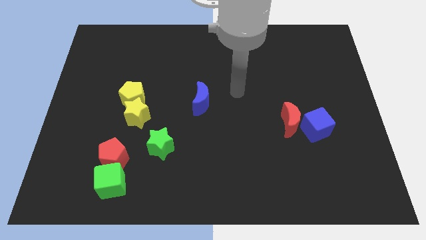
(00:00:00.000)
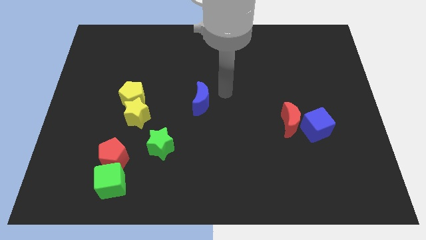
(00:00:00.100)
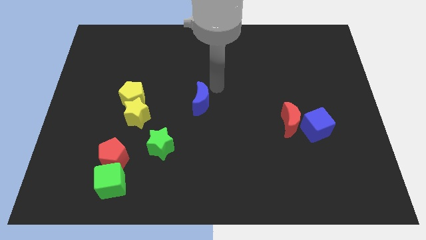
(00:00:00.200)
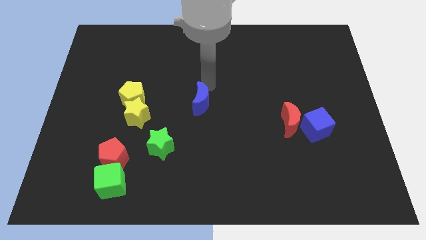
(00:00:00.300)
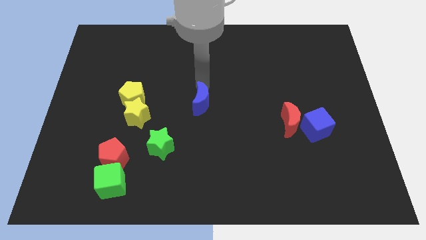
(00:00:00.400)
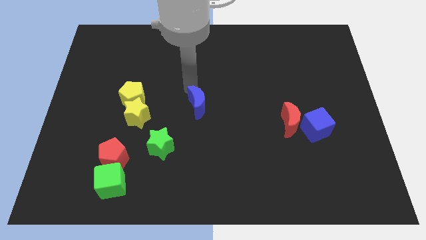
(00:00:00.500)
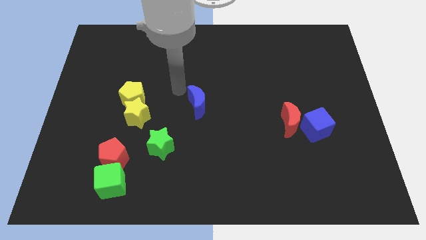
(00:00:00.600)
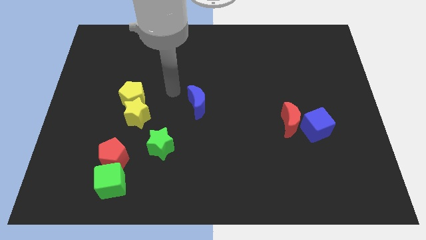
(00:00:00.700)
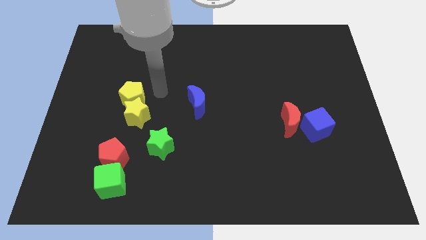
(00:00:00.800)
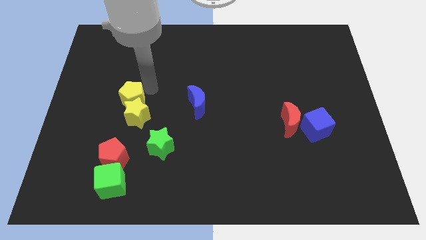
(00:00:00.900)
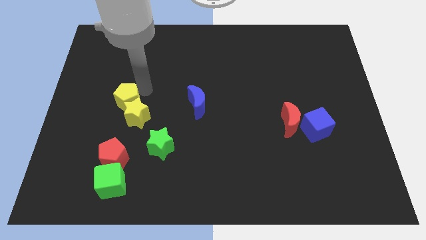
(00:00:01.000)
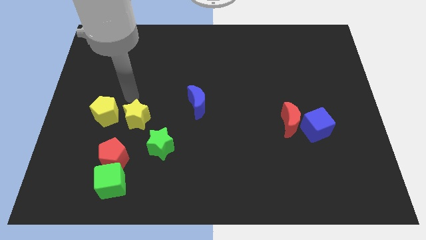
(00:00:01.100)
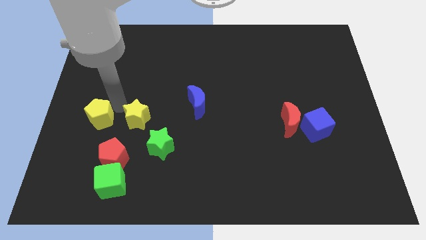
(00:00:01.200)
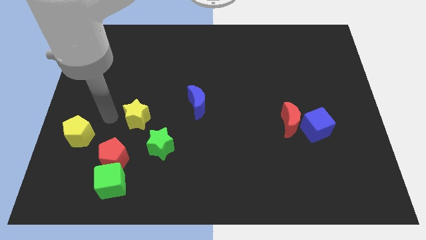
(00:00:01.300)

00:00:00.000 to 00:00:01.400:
move the yellow star away from the yellow pentagon

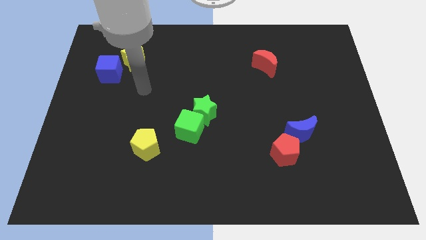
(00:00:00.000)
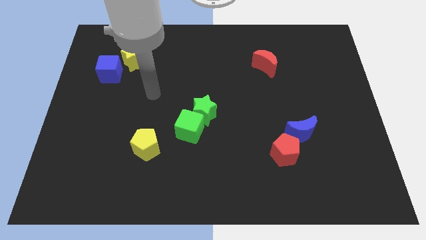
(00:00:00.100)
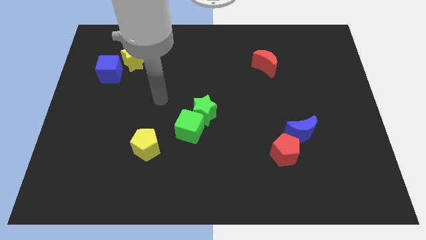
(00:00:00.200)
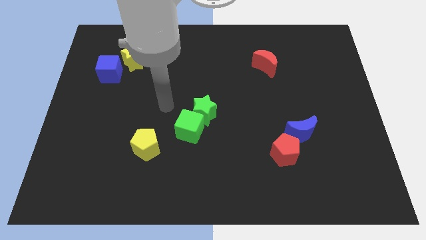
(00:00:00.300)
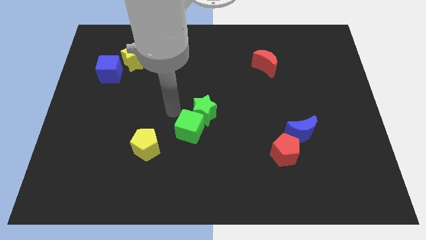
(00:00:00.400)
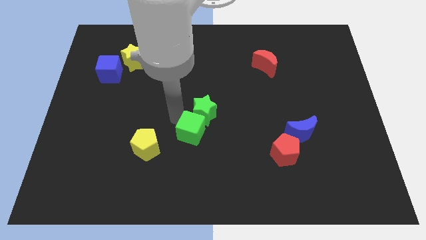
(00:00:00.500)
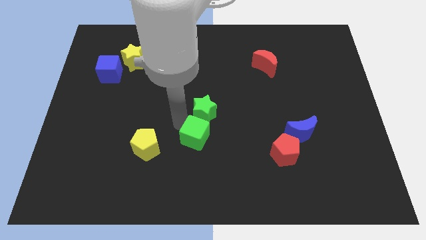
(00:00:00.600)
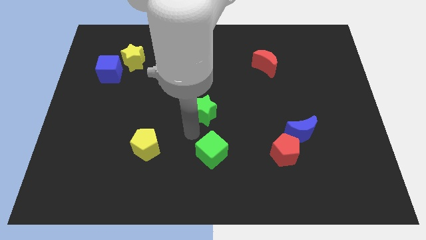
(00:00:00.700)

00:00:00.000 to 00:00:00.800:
pull the green star apart from the green cube

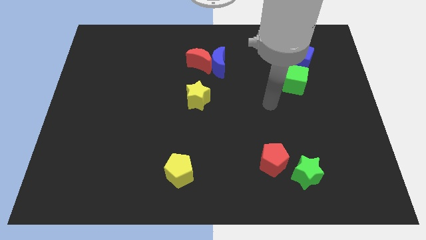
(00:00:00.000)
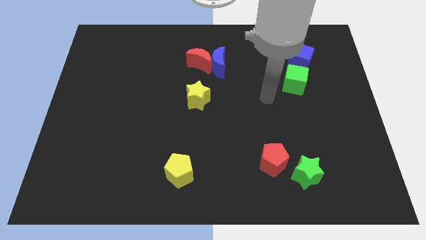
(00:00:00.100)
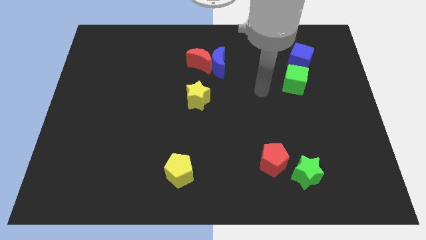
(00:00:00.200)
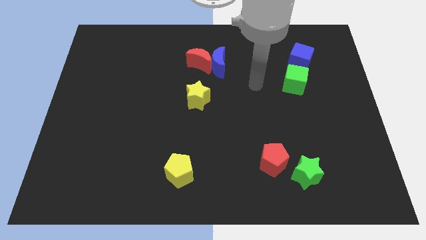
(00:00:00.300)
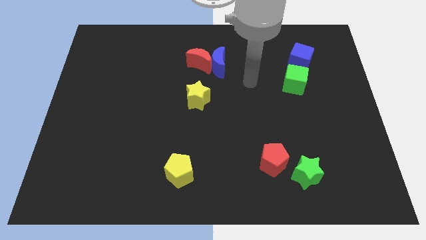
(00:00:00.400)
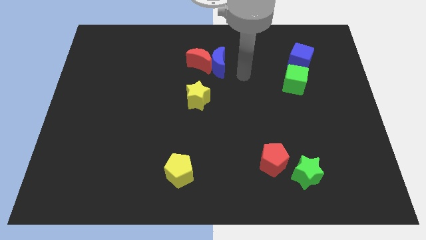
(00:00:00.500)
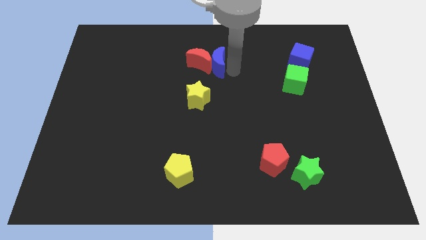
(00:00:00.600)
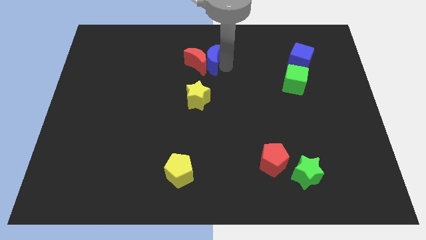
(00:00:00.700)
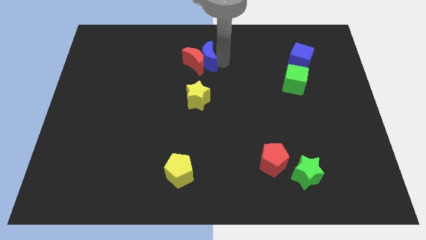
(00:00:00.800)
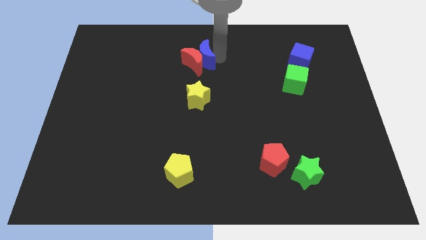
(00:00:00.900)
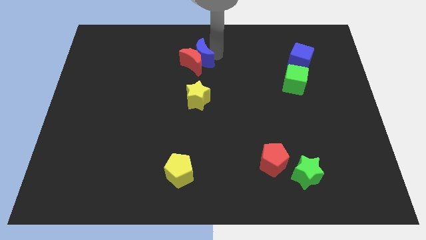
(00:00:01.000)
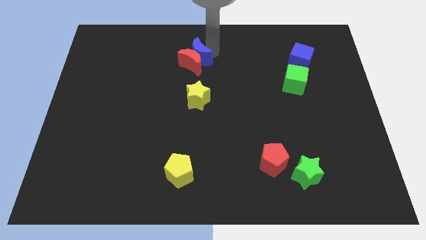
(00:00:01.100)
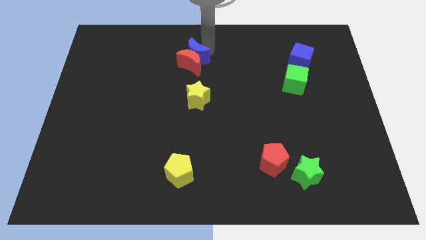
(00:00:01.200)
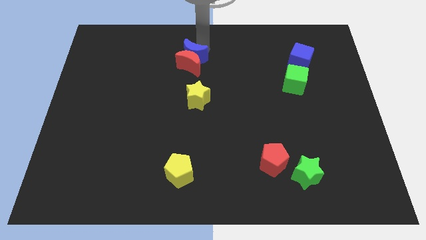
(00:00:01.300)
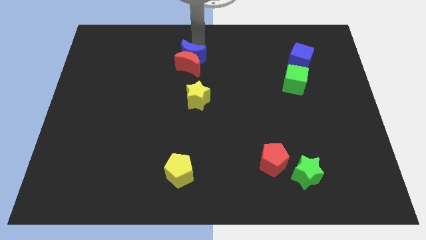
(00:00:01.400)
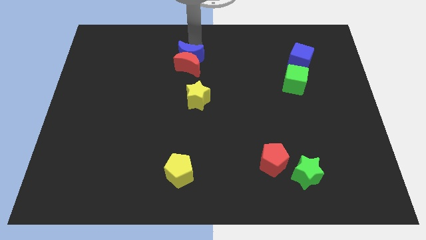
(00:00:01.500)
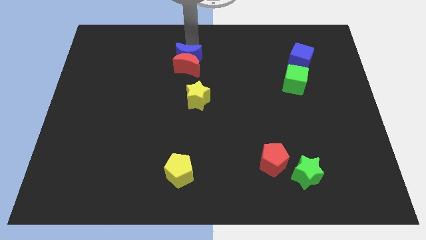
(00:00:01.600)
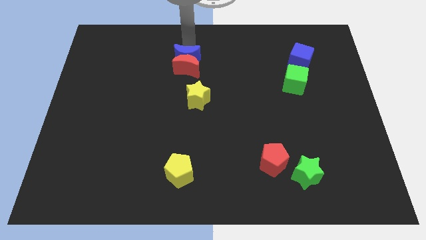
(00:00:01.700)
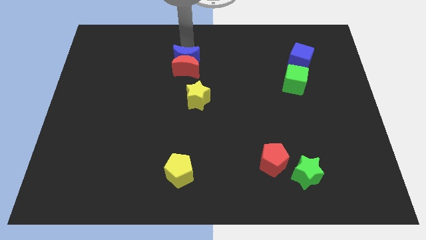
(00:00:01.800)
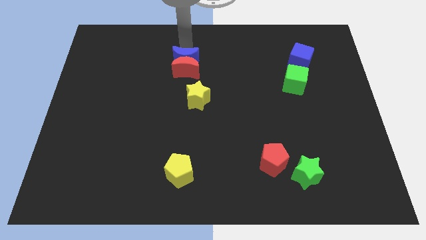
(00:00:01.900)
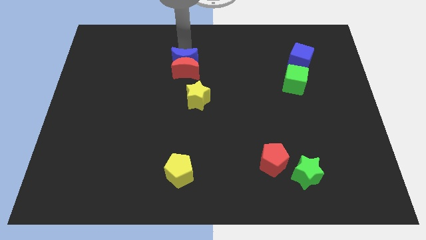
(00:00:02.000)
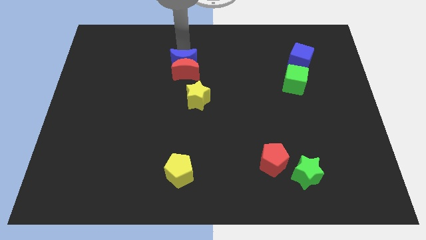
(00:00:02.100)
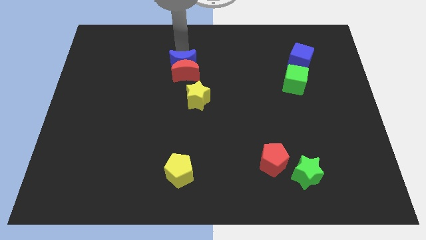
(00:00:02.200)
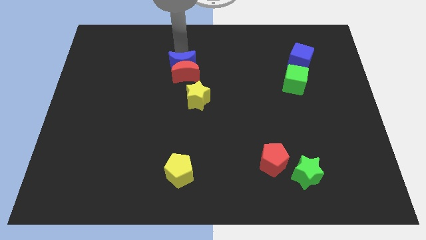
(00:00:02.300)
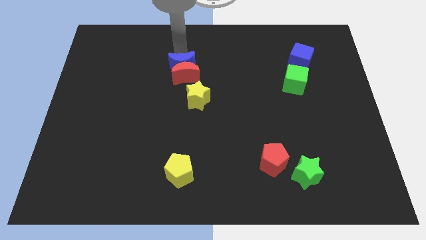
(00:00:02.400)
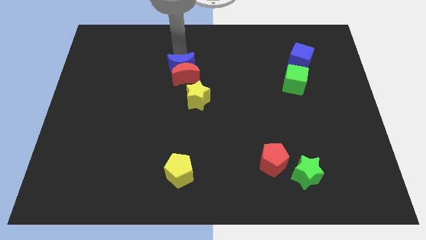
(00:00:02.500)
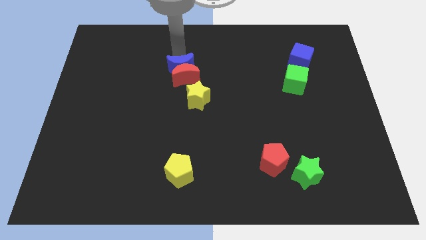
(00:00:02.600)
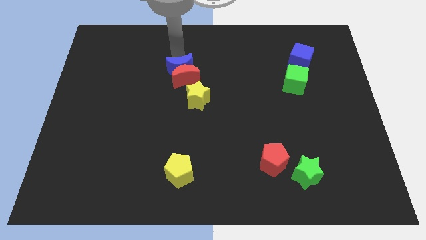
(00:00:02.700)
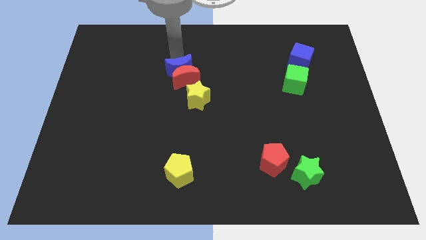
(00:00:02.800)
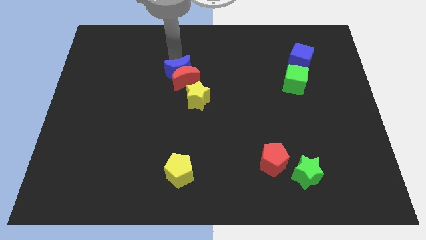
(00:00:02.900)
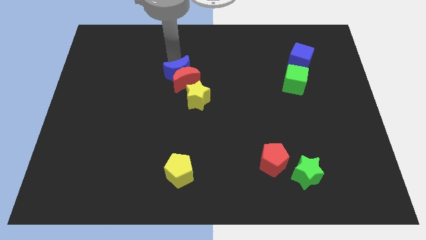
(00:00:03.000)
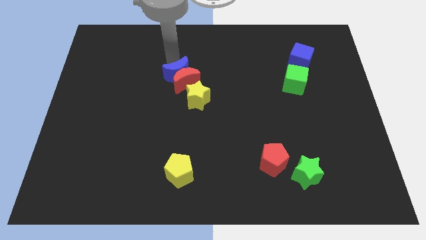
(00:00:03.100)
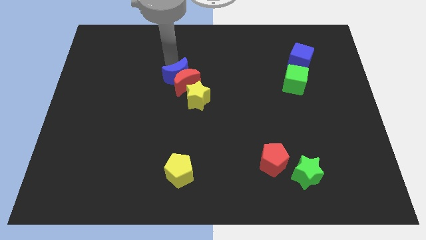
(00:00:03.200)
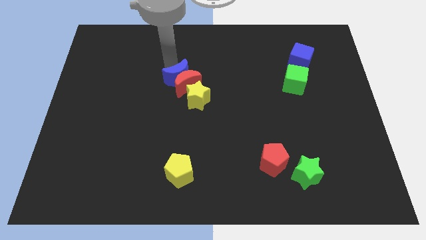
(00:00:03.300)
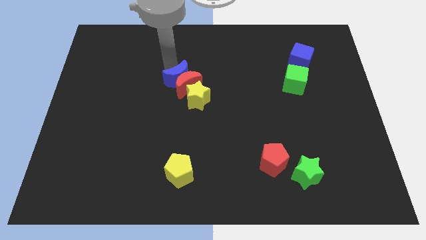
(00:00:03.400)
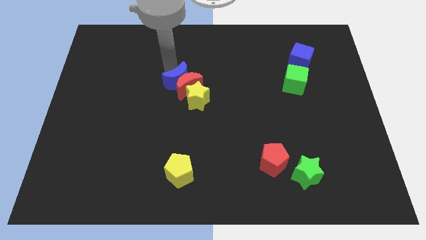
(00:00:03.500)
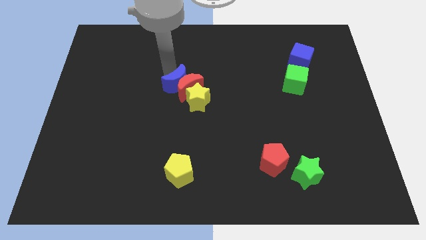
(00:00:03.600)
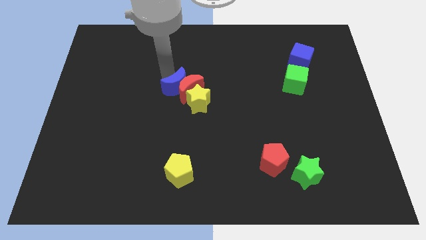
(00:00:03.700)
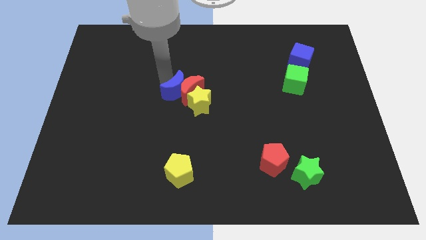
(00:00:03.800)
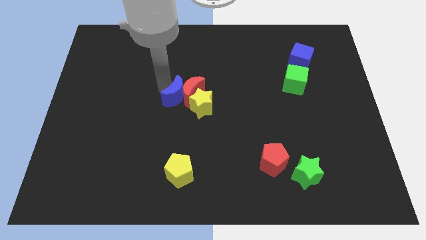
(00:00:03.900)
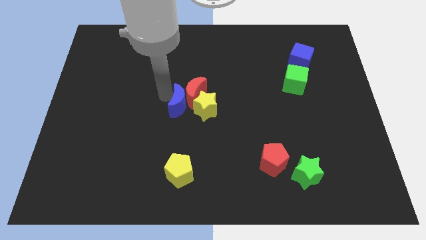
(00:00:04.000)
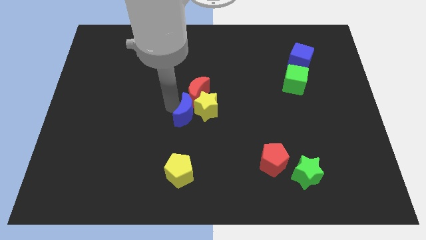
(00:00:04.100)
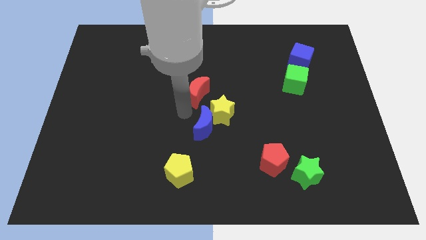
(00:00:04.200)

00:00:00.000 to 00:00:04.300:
pull the red moon apart from the blue moon

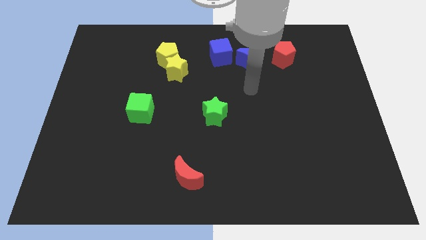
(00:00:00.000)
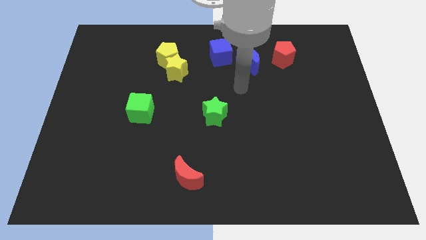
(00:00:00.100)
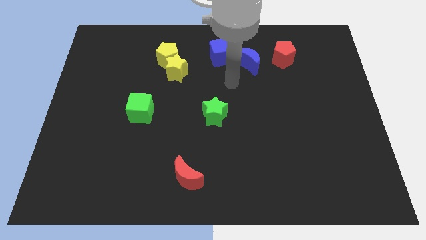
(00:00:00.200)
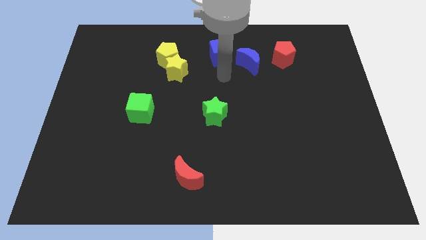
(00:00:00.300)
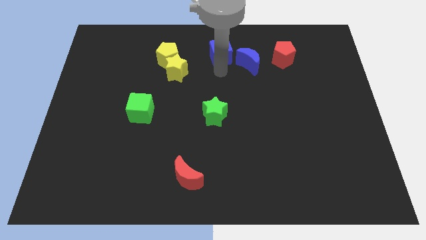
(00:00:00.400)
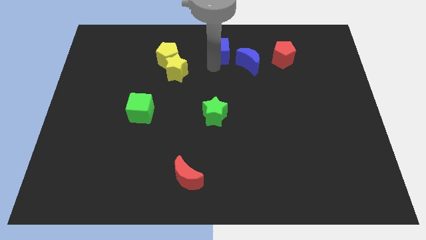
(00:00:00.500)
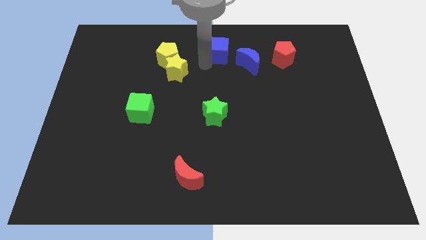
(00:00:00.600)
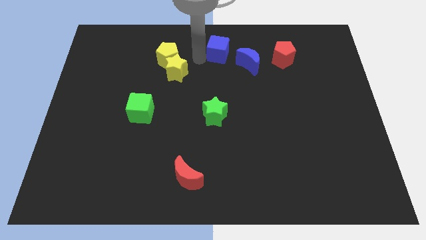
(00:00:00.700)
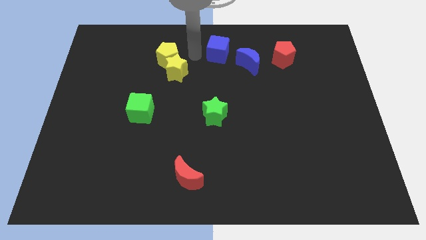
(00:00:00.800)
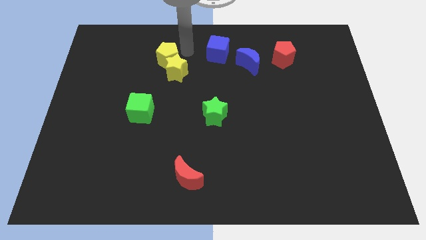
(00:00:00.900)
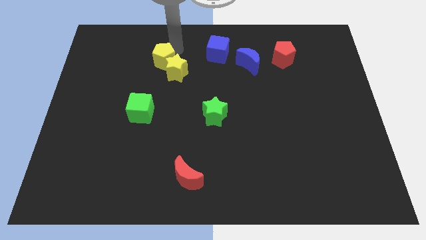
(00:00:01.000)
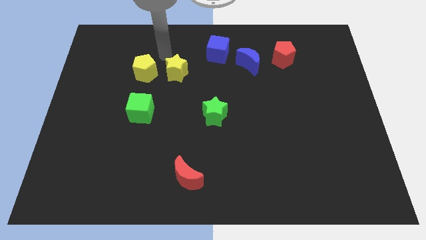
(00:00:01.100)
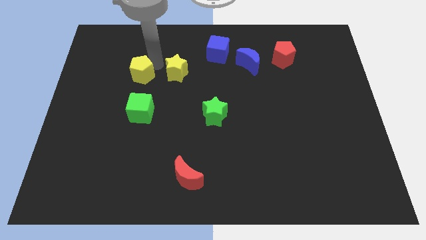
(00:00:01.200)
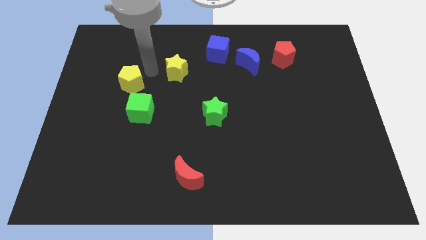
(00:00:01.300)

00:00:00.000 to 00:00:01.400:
pull the yellow star apart from the yellow pentagon

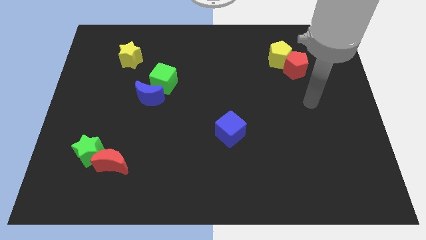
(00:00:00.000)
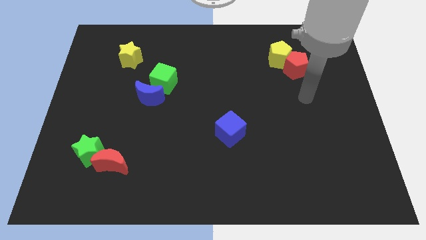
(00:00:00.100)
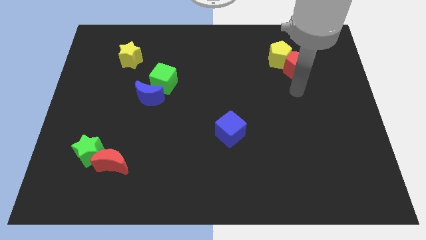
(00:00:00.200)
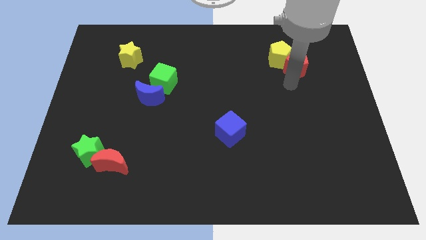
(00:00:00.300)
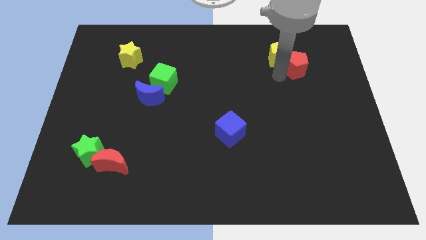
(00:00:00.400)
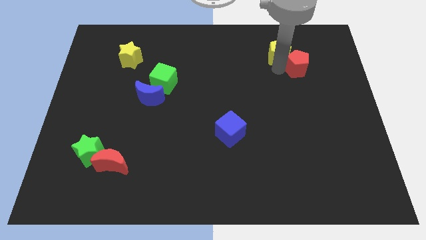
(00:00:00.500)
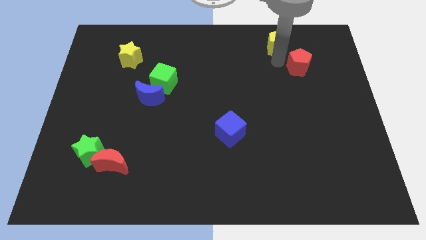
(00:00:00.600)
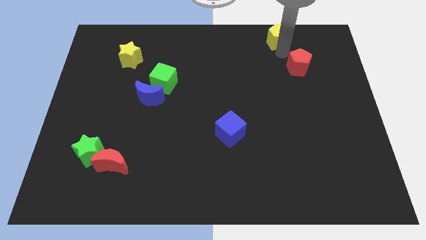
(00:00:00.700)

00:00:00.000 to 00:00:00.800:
pull the red pentagon apart from the yellow pentagon

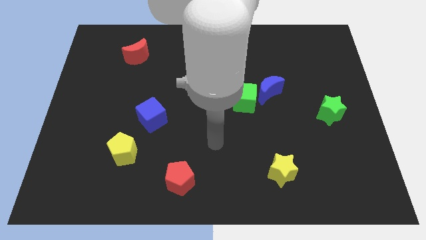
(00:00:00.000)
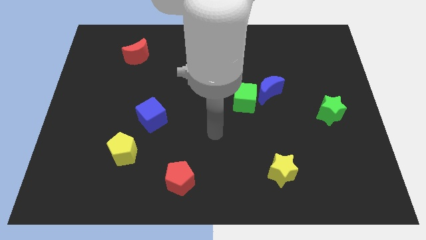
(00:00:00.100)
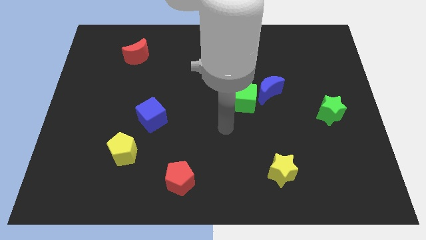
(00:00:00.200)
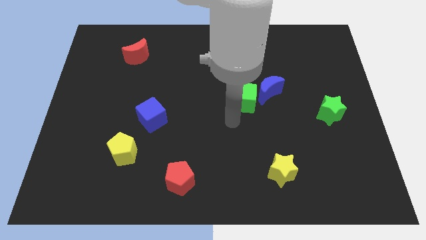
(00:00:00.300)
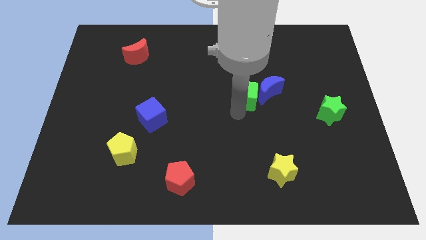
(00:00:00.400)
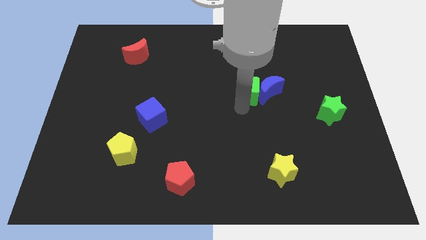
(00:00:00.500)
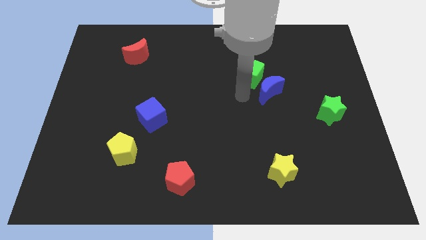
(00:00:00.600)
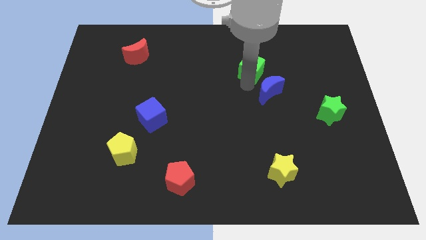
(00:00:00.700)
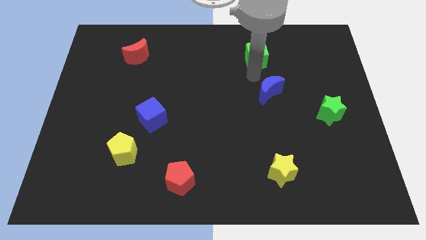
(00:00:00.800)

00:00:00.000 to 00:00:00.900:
separate the blue moon from the green cube
